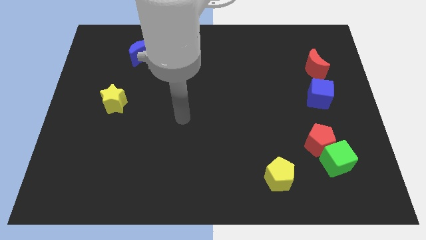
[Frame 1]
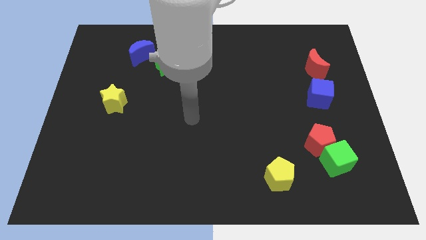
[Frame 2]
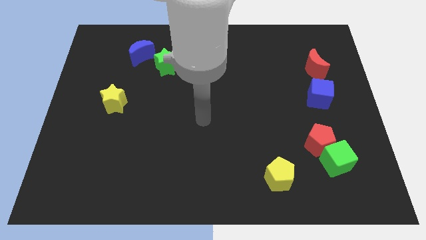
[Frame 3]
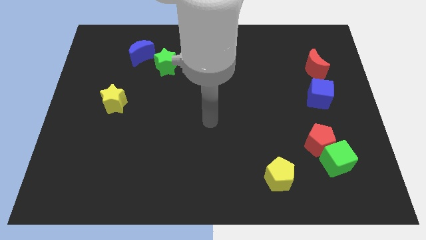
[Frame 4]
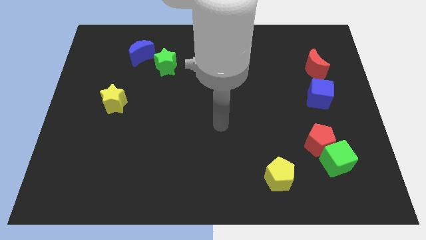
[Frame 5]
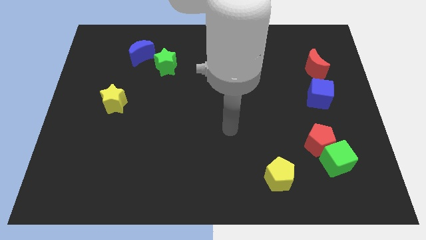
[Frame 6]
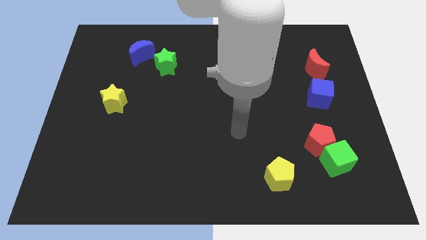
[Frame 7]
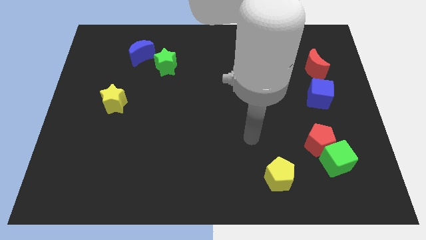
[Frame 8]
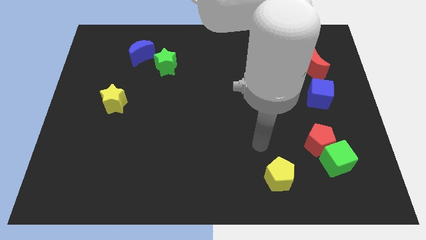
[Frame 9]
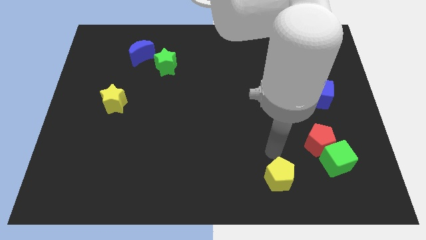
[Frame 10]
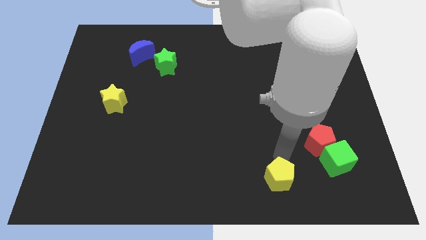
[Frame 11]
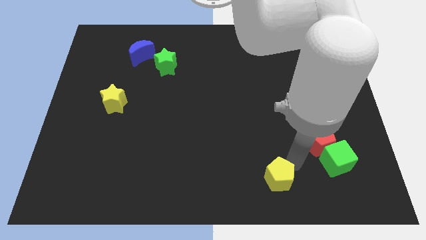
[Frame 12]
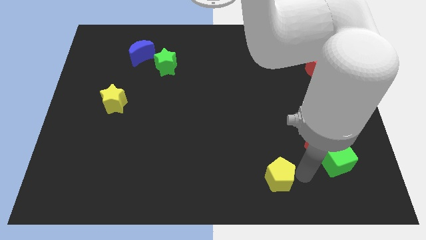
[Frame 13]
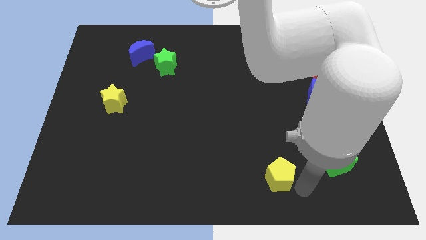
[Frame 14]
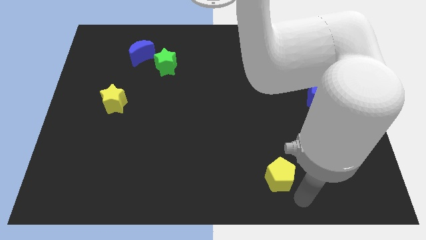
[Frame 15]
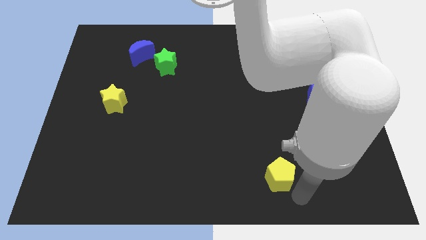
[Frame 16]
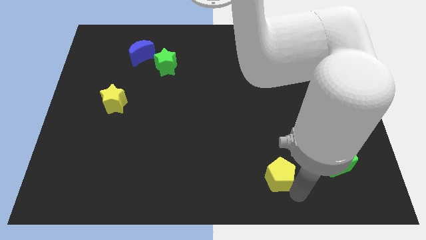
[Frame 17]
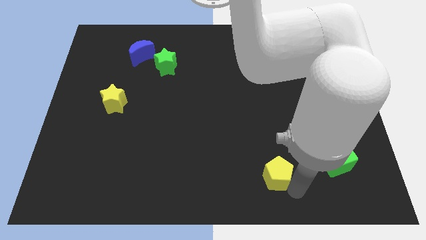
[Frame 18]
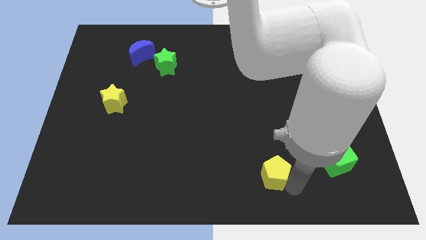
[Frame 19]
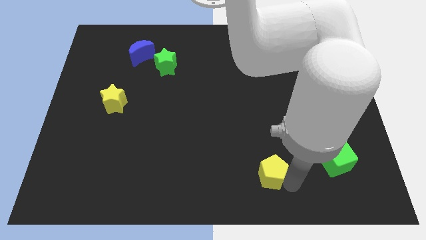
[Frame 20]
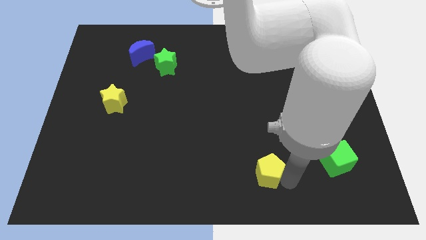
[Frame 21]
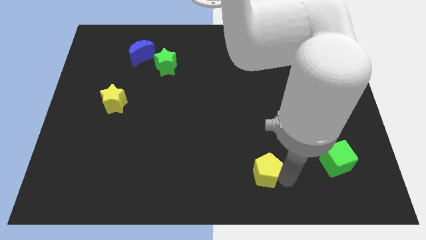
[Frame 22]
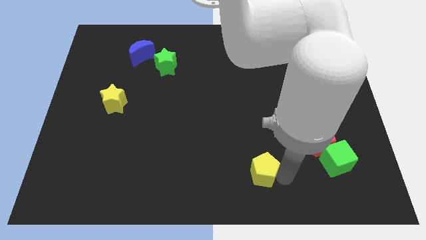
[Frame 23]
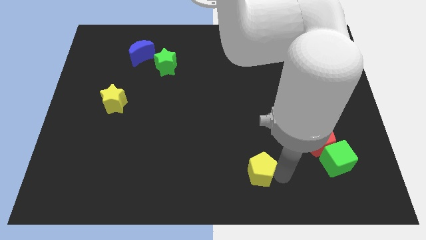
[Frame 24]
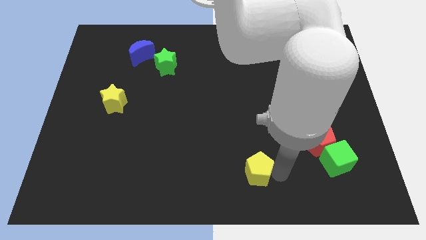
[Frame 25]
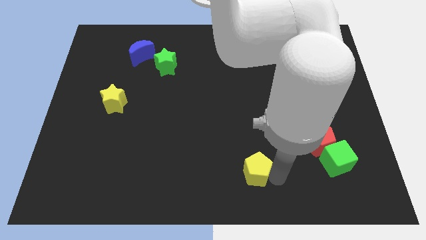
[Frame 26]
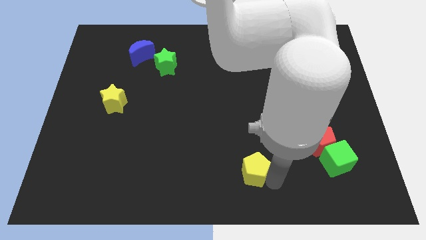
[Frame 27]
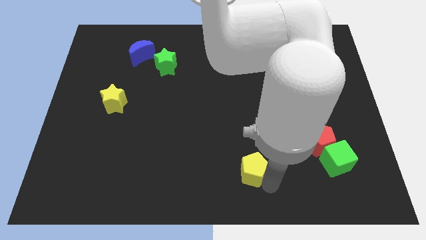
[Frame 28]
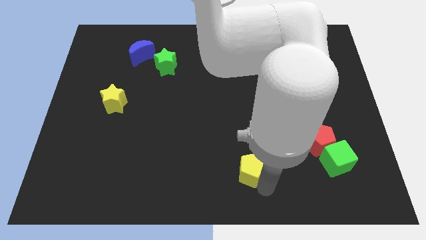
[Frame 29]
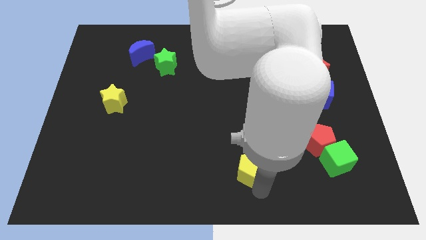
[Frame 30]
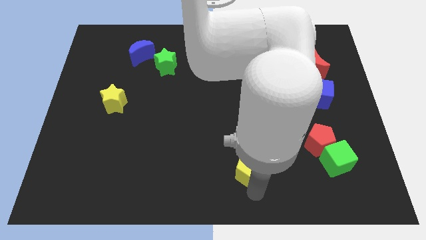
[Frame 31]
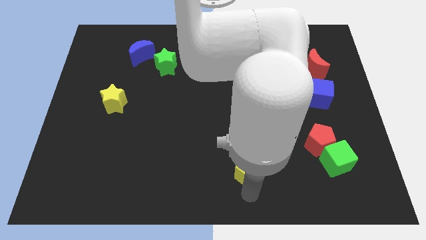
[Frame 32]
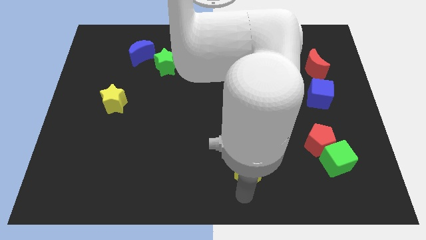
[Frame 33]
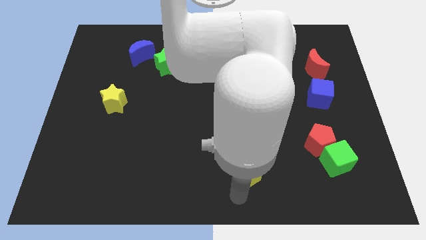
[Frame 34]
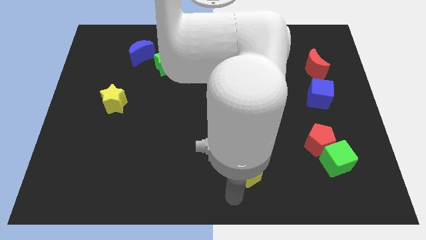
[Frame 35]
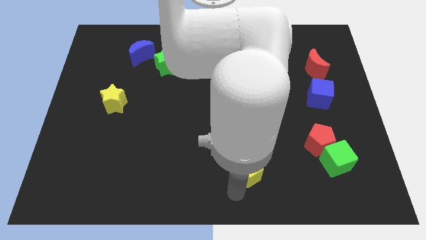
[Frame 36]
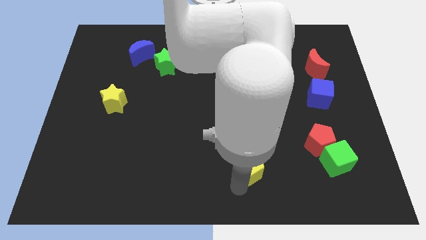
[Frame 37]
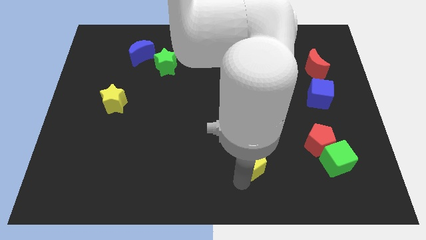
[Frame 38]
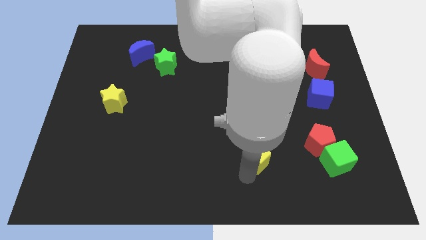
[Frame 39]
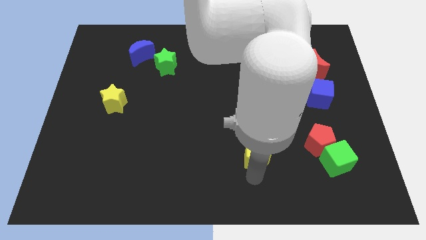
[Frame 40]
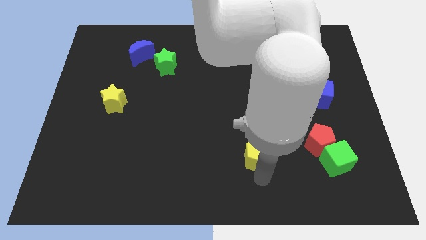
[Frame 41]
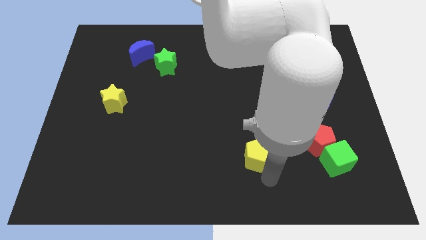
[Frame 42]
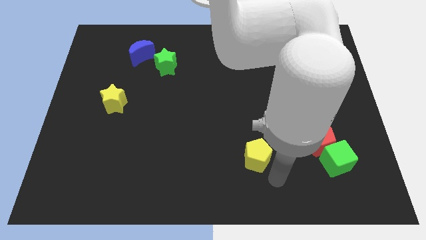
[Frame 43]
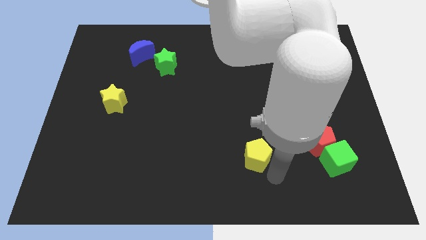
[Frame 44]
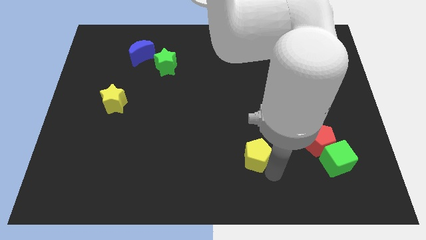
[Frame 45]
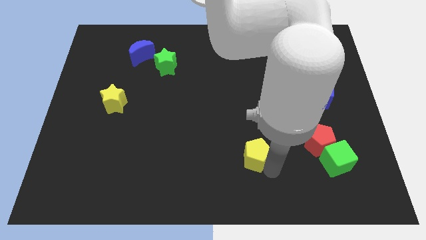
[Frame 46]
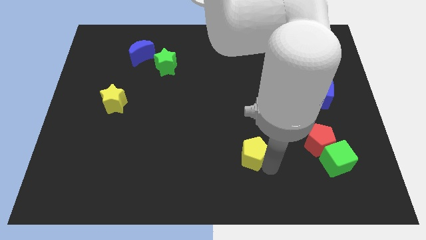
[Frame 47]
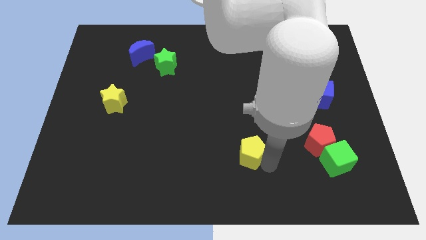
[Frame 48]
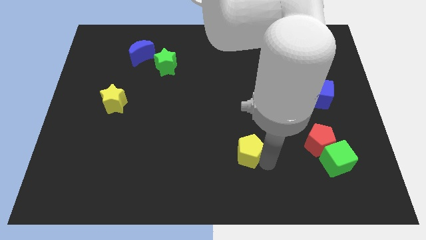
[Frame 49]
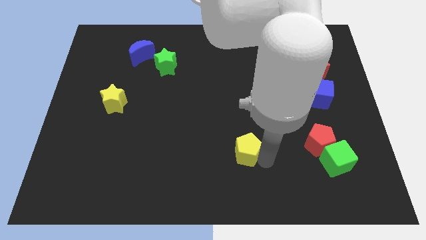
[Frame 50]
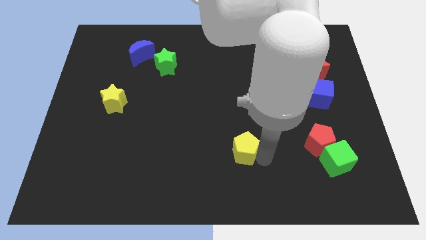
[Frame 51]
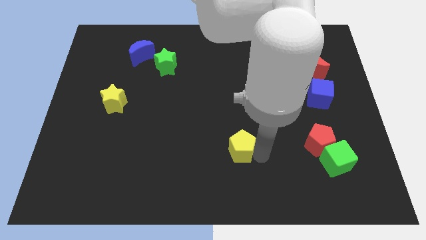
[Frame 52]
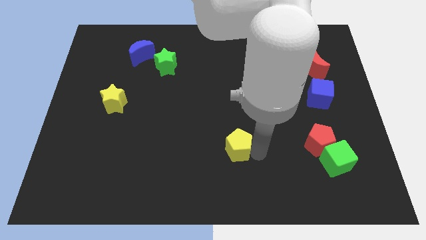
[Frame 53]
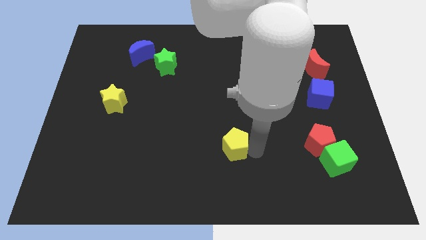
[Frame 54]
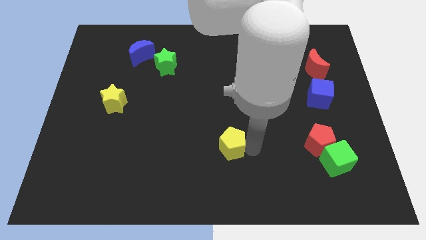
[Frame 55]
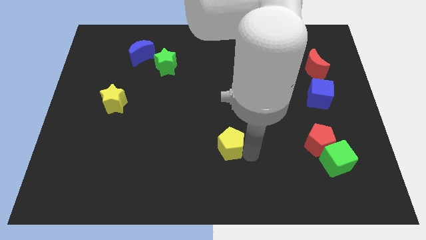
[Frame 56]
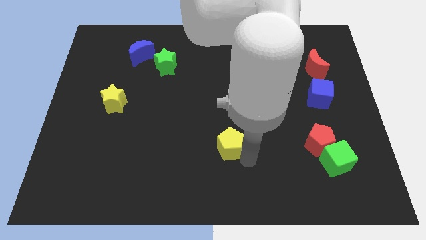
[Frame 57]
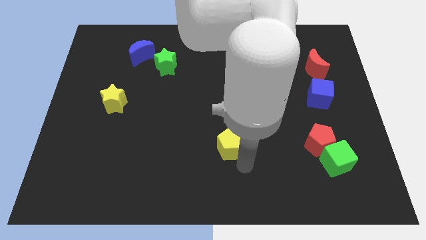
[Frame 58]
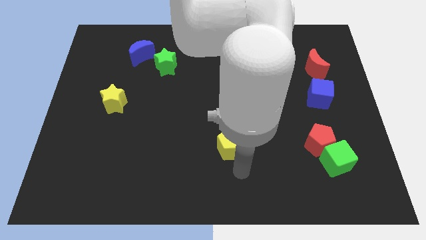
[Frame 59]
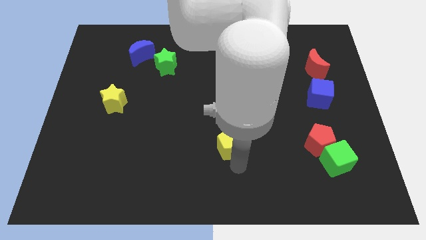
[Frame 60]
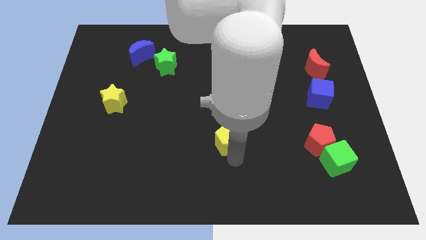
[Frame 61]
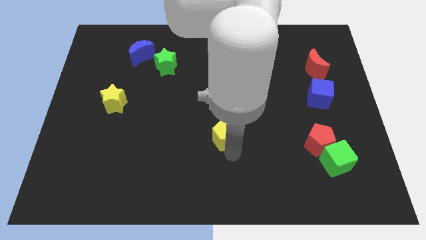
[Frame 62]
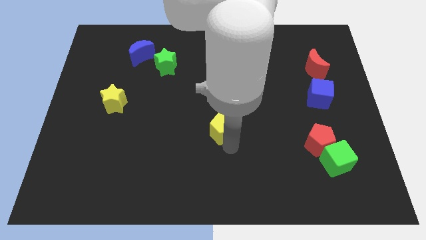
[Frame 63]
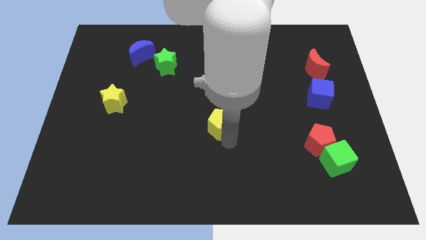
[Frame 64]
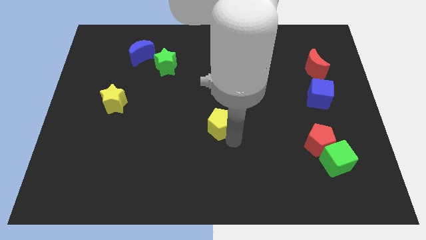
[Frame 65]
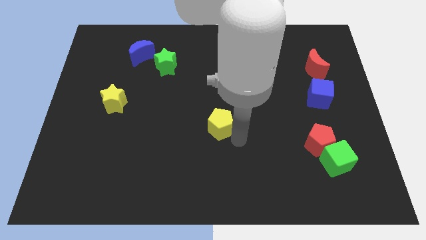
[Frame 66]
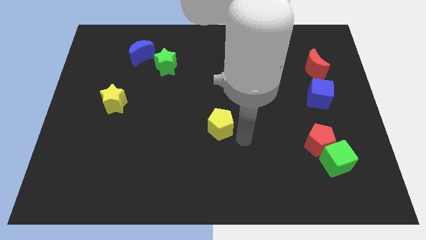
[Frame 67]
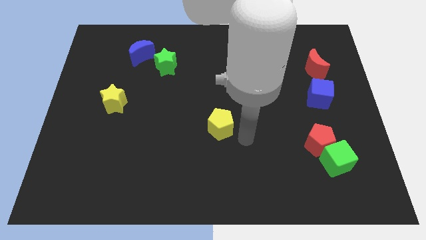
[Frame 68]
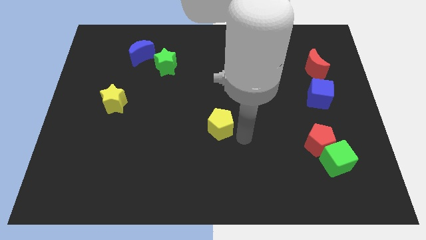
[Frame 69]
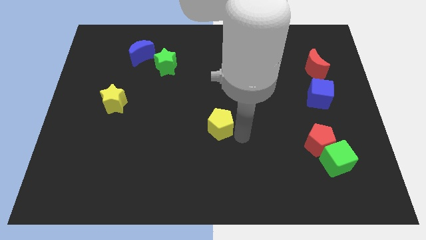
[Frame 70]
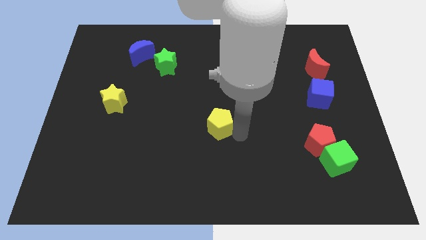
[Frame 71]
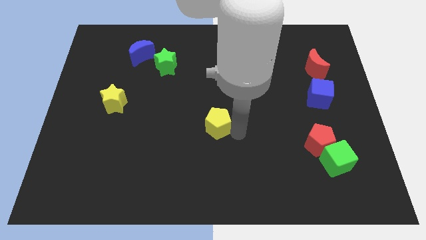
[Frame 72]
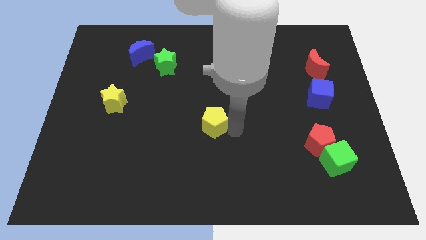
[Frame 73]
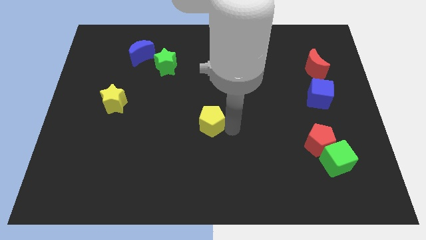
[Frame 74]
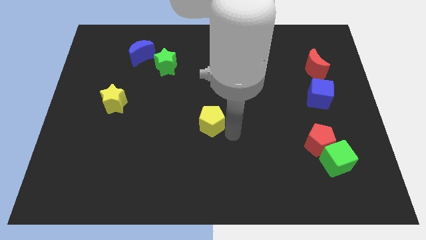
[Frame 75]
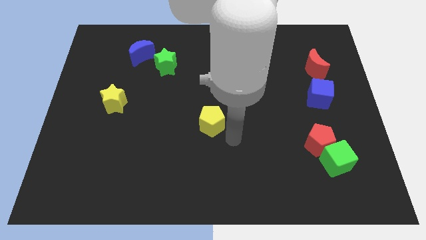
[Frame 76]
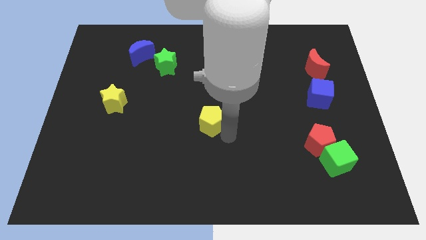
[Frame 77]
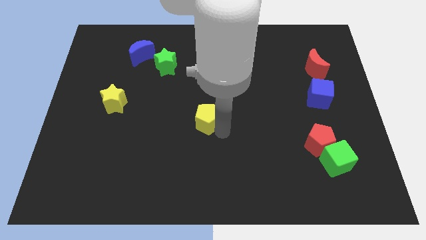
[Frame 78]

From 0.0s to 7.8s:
move the yellow pentagon diagonally upwards and left
